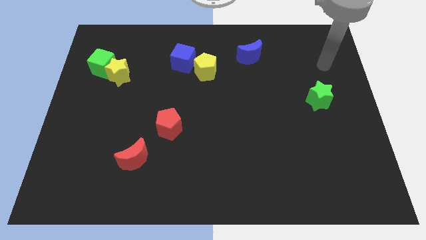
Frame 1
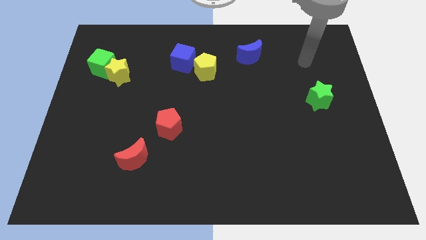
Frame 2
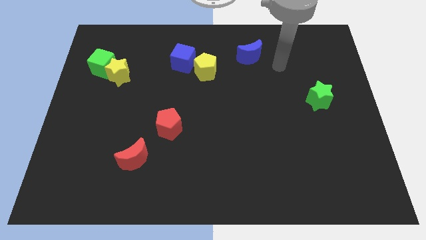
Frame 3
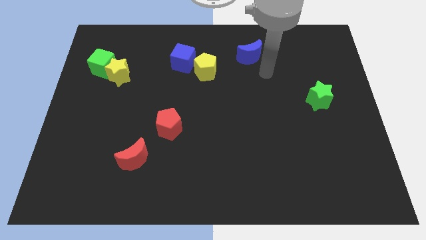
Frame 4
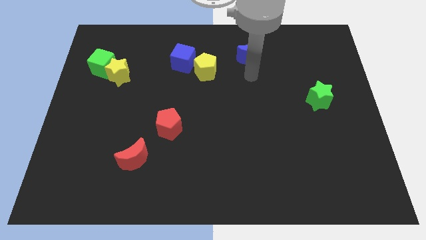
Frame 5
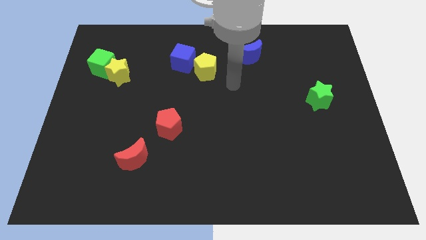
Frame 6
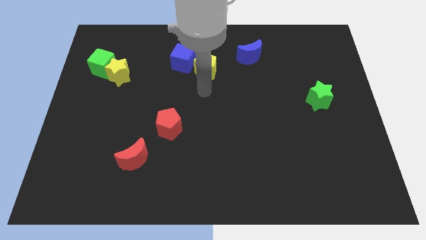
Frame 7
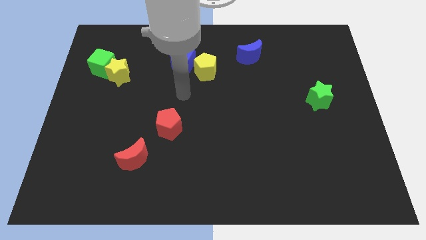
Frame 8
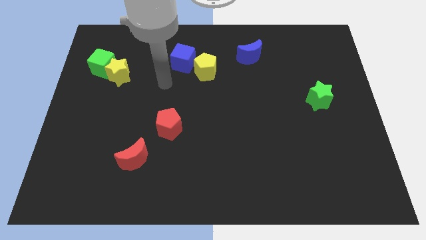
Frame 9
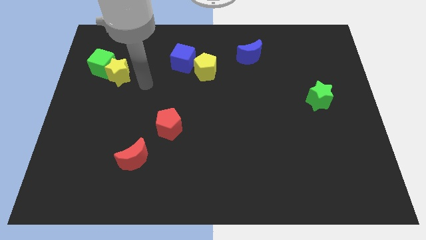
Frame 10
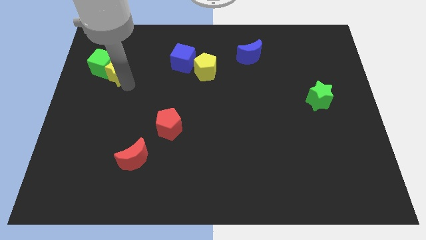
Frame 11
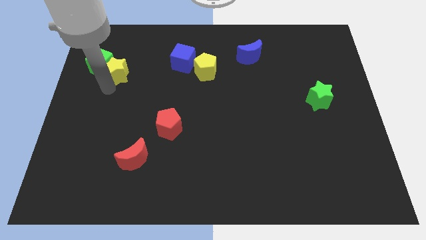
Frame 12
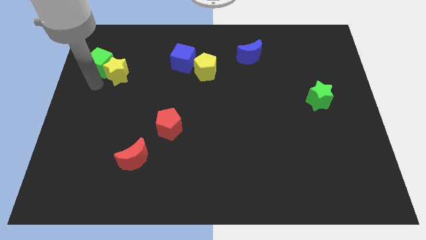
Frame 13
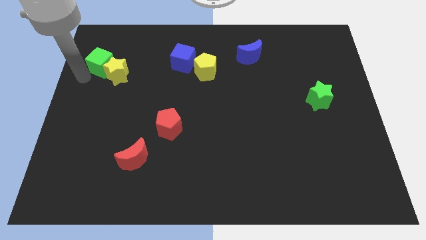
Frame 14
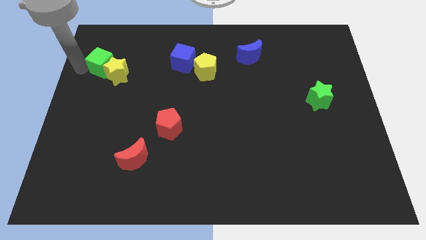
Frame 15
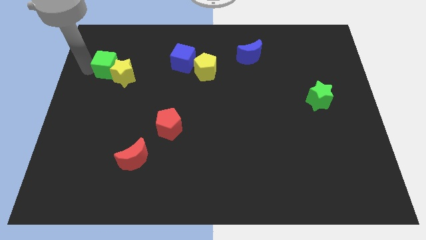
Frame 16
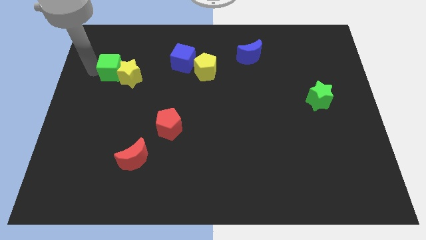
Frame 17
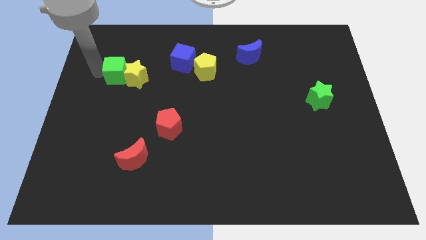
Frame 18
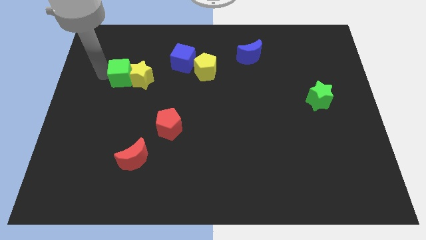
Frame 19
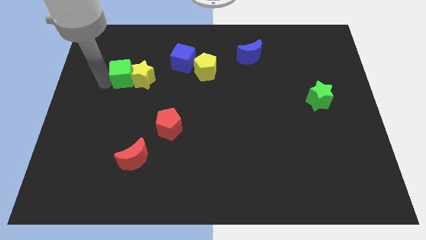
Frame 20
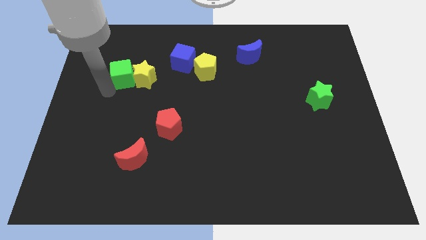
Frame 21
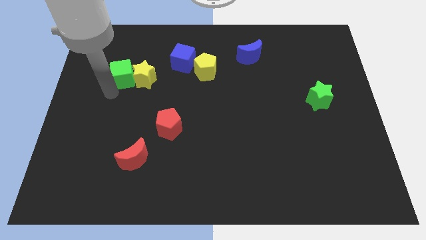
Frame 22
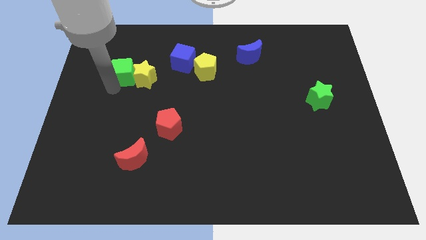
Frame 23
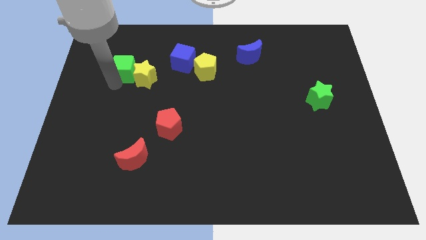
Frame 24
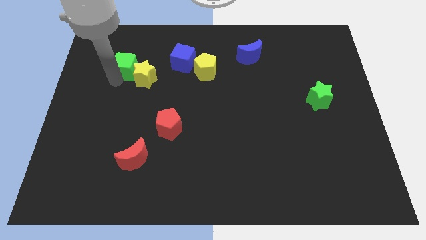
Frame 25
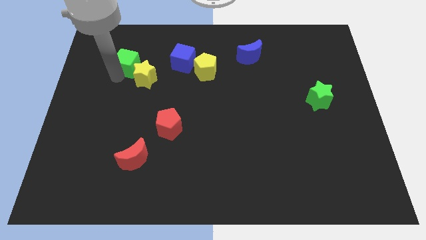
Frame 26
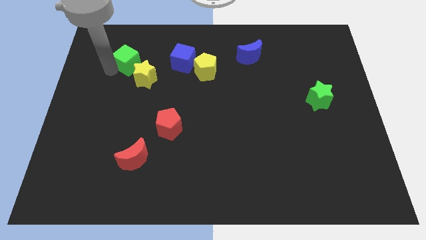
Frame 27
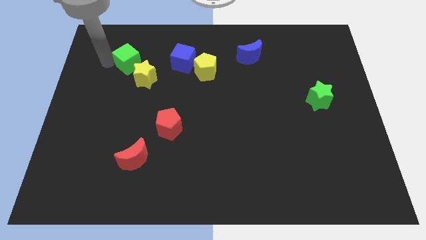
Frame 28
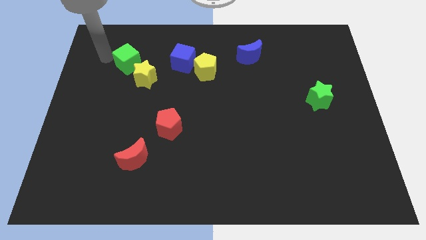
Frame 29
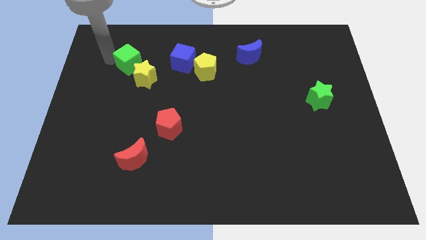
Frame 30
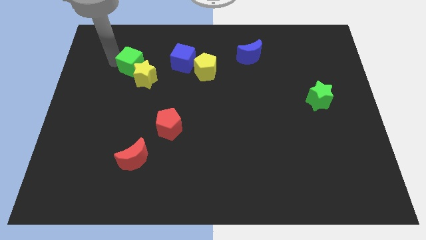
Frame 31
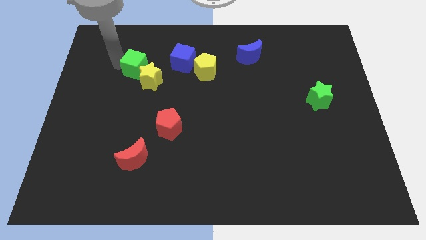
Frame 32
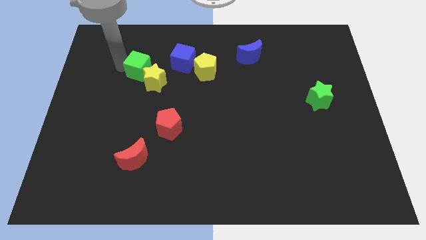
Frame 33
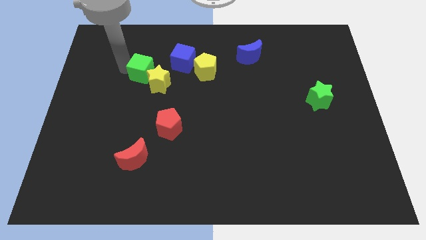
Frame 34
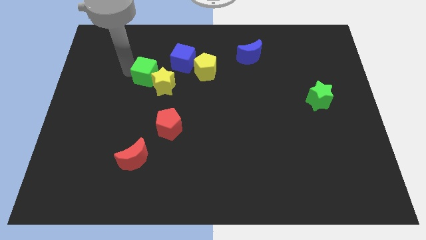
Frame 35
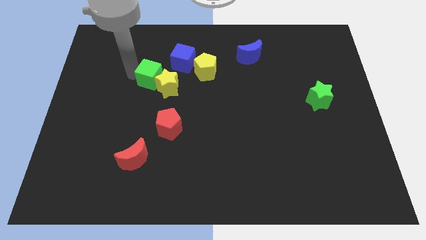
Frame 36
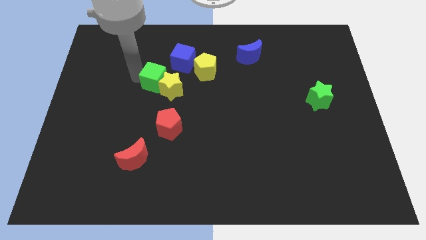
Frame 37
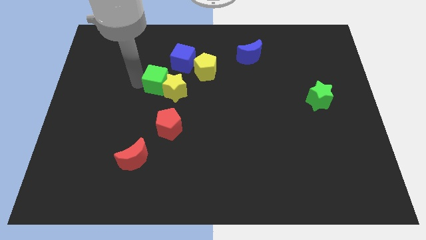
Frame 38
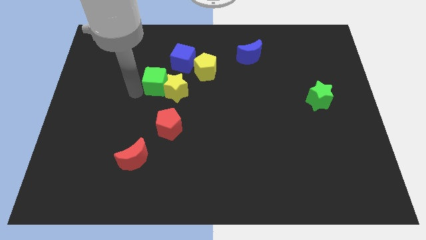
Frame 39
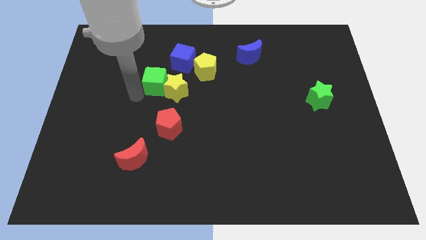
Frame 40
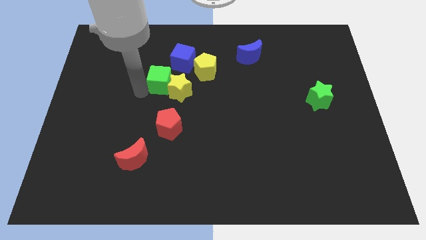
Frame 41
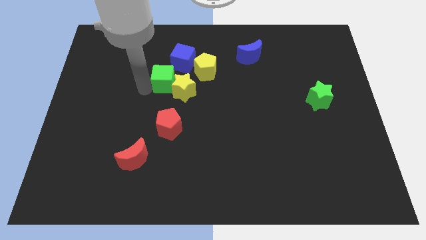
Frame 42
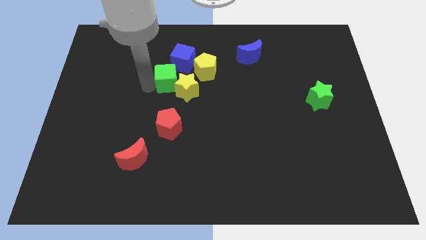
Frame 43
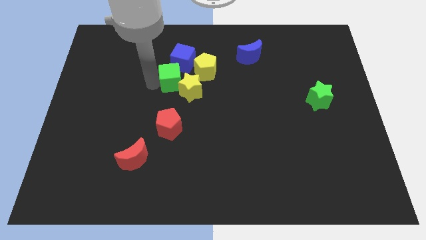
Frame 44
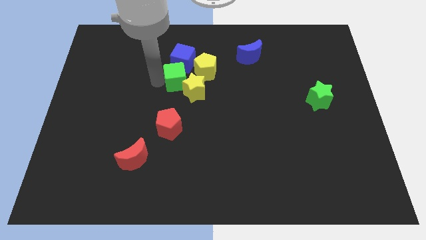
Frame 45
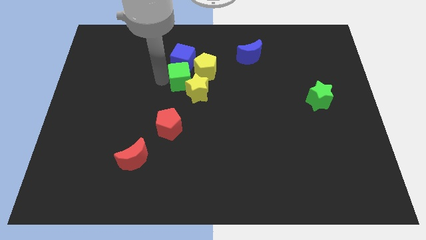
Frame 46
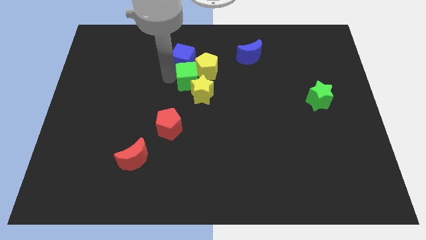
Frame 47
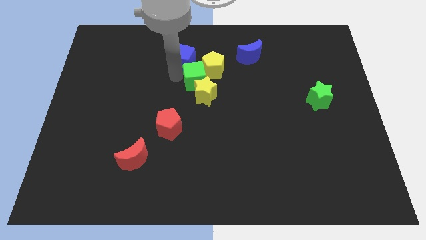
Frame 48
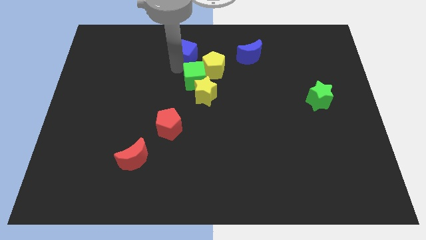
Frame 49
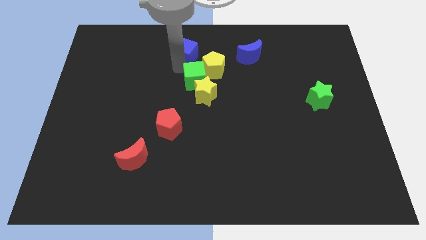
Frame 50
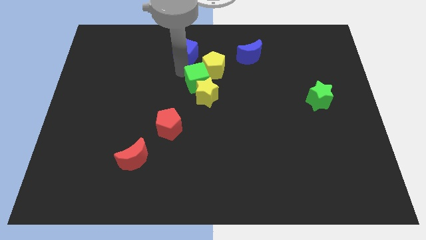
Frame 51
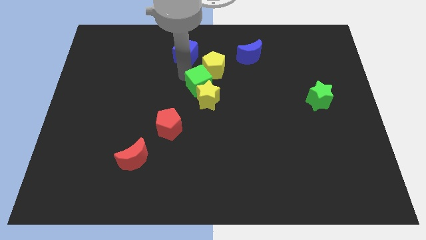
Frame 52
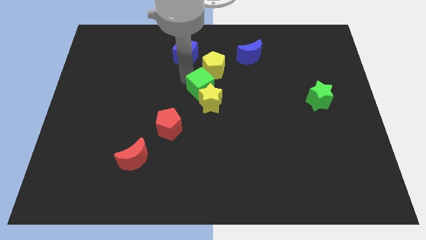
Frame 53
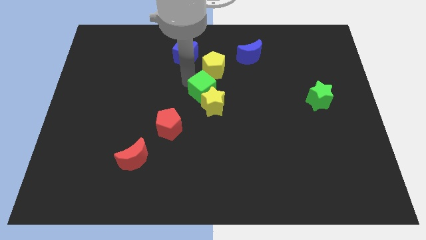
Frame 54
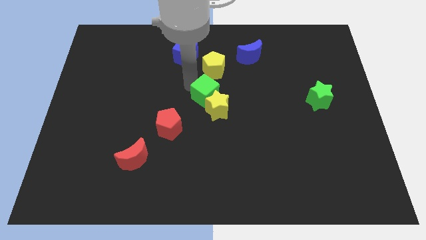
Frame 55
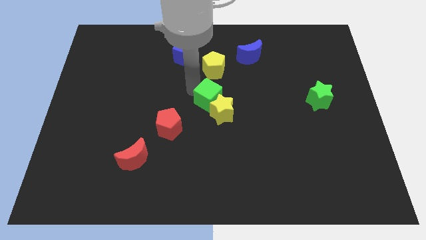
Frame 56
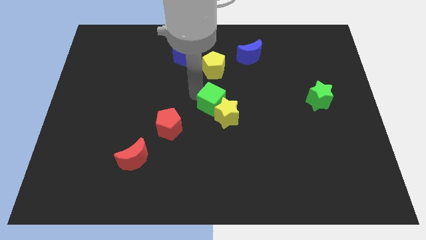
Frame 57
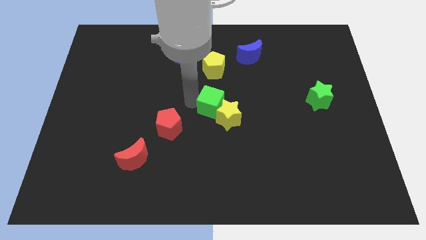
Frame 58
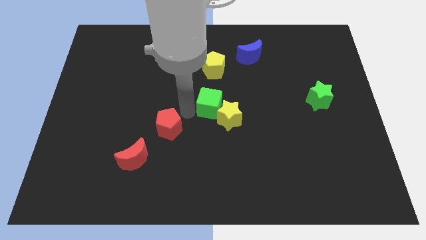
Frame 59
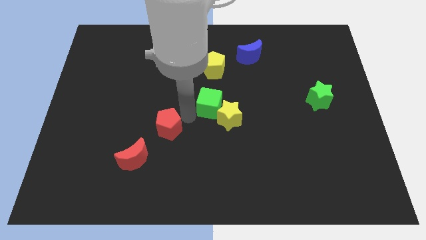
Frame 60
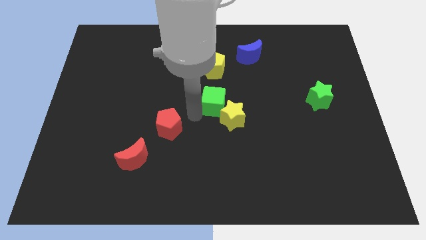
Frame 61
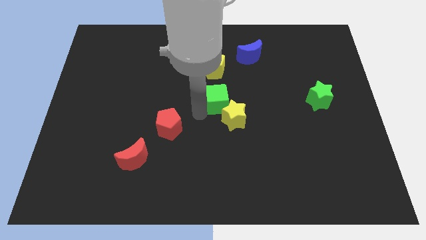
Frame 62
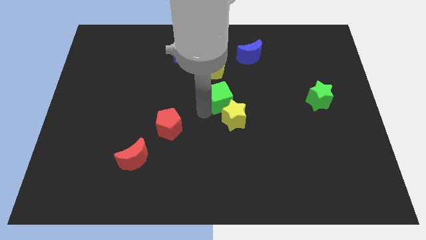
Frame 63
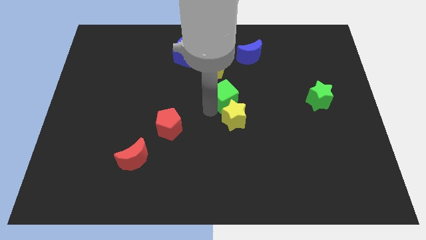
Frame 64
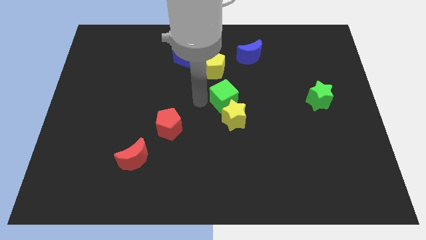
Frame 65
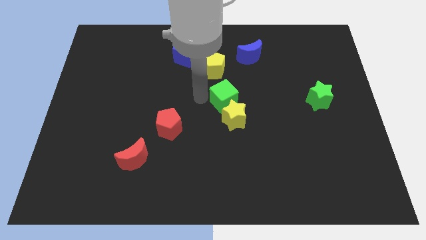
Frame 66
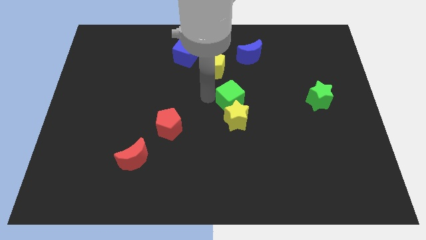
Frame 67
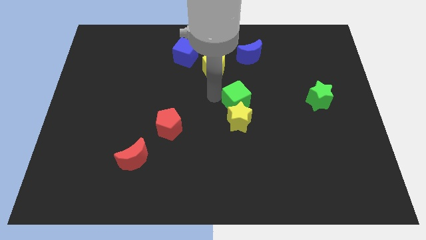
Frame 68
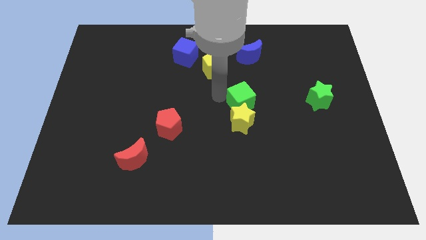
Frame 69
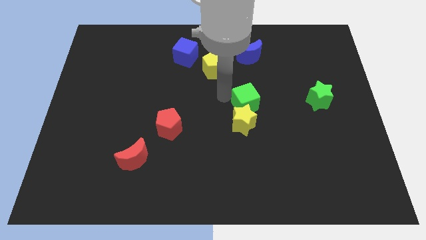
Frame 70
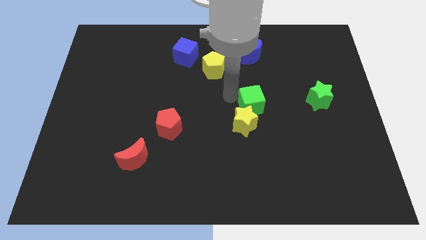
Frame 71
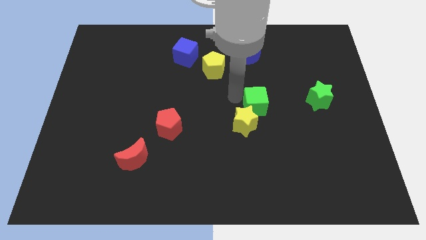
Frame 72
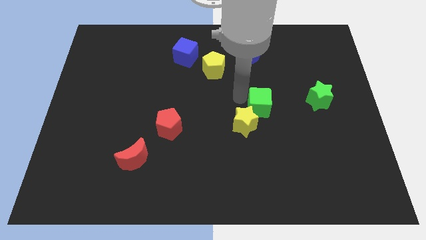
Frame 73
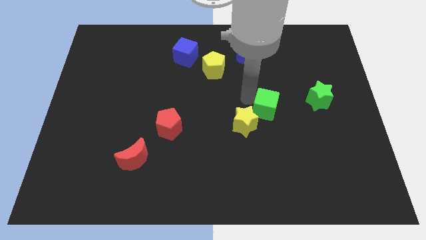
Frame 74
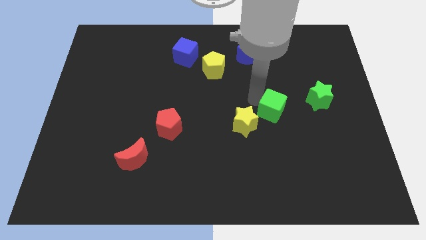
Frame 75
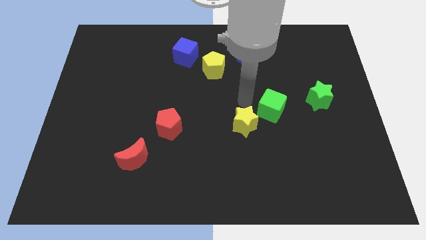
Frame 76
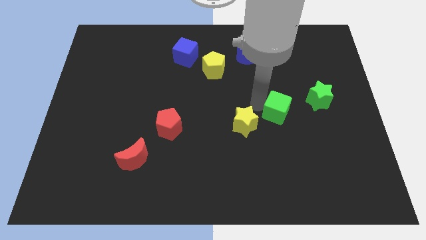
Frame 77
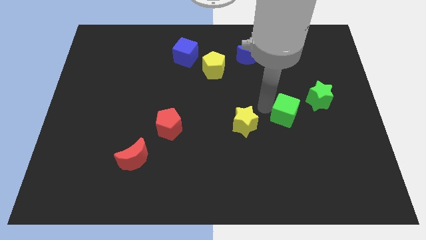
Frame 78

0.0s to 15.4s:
put the green cube to the bottom left of the green star
